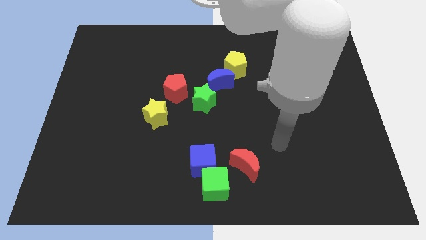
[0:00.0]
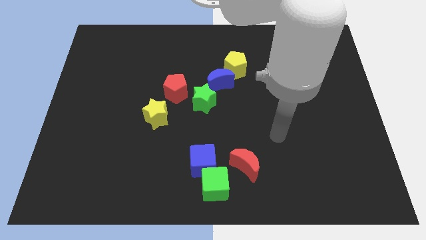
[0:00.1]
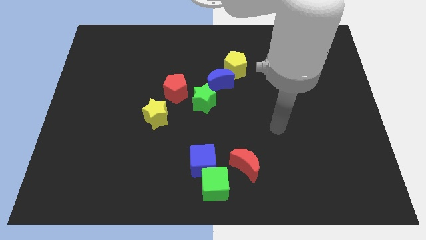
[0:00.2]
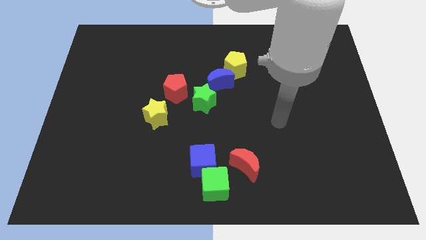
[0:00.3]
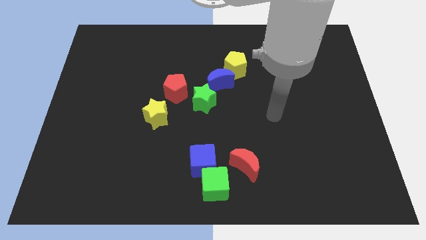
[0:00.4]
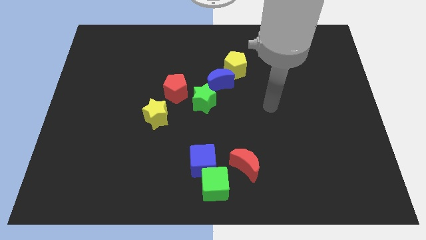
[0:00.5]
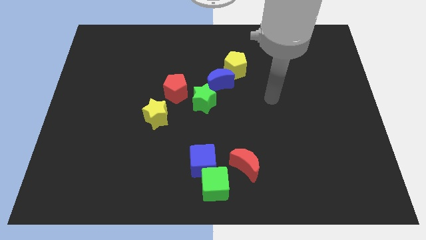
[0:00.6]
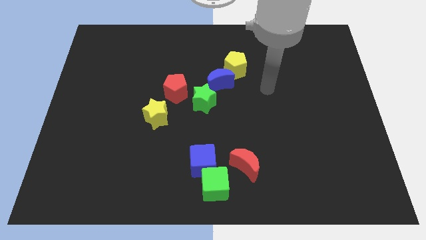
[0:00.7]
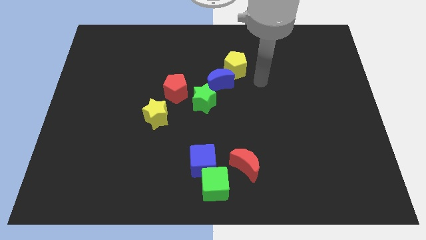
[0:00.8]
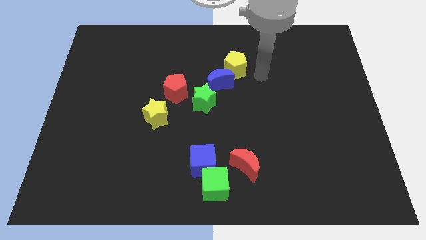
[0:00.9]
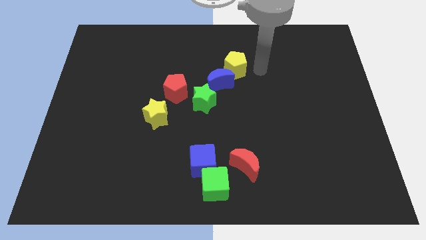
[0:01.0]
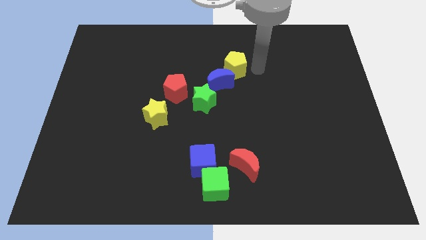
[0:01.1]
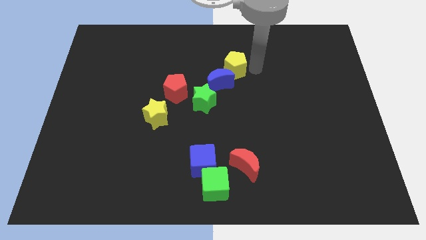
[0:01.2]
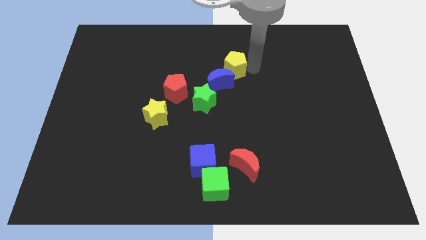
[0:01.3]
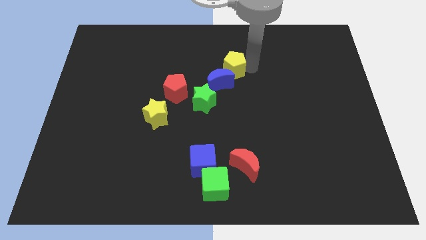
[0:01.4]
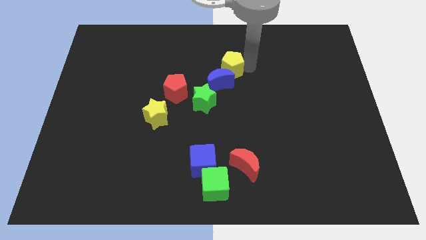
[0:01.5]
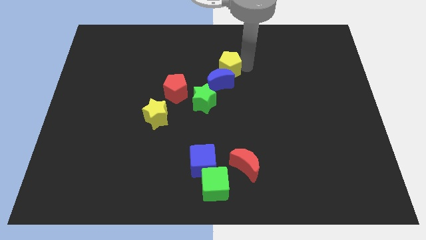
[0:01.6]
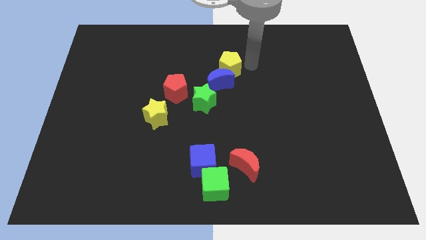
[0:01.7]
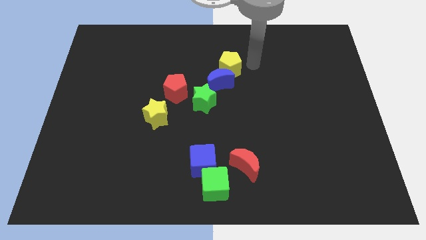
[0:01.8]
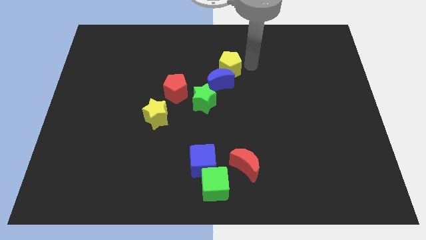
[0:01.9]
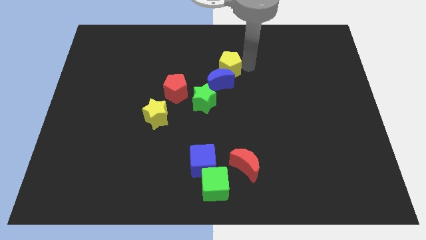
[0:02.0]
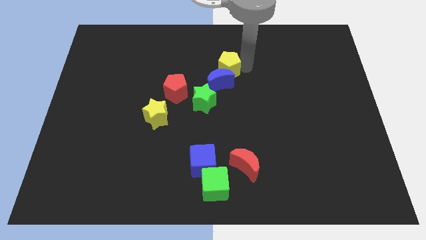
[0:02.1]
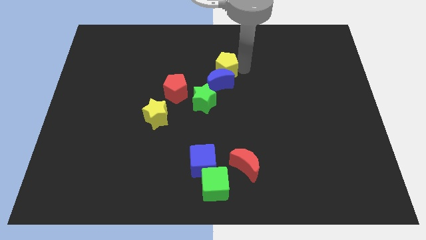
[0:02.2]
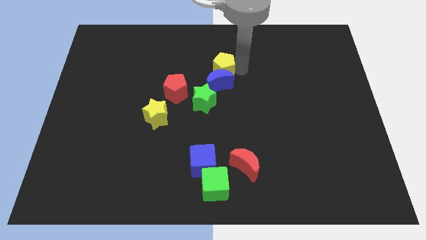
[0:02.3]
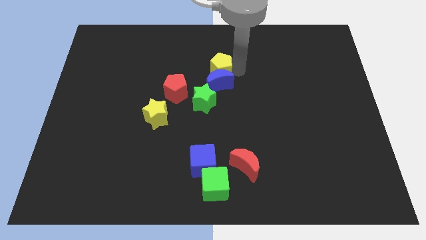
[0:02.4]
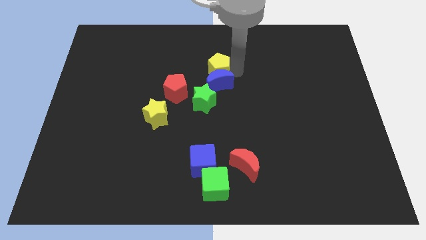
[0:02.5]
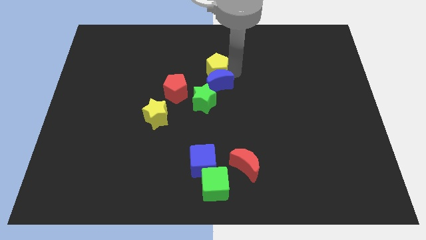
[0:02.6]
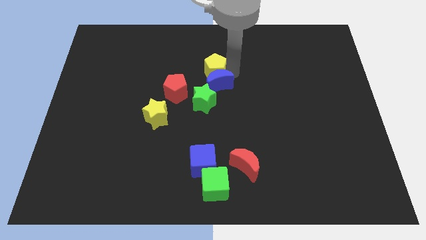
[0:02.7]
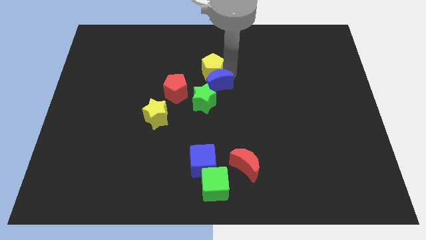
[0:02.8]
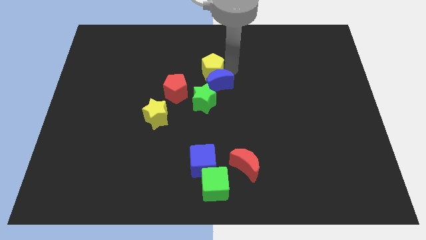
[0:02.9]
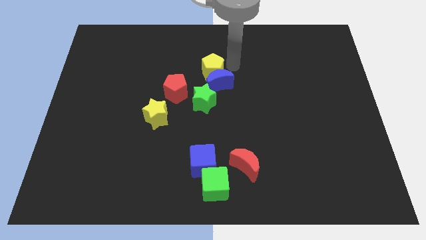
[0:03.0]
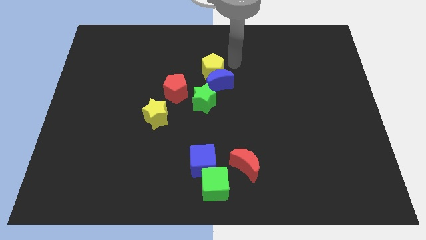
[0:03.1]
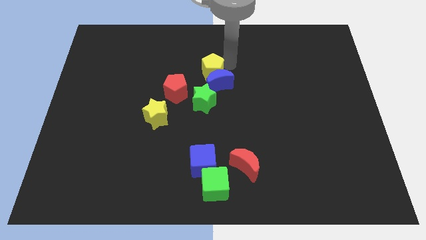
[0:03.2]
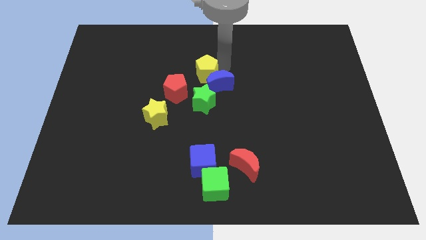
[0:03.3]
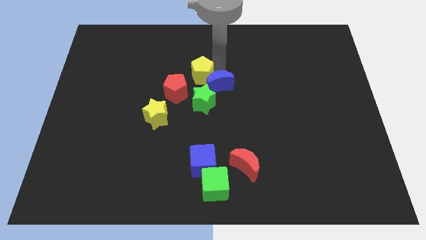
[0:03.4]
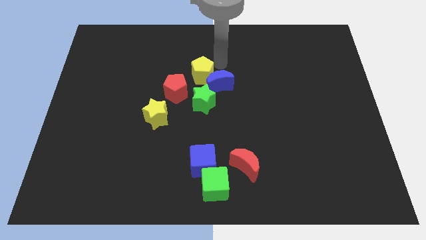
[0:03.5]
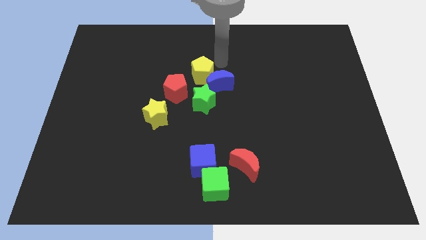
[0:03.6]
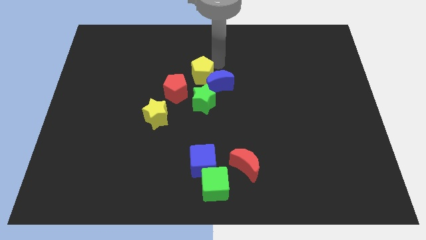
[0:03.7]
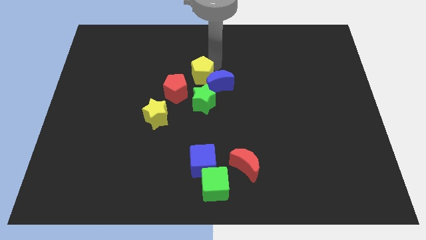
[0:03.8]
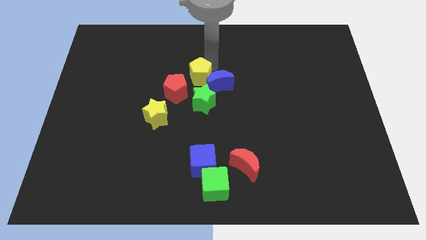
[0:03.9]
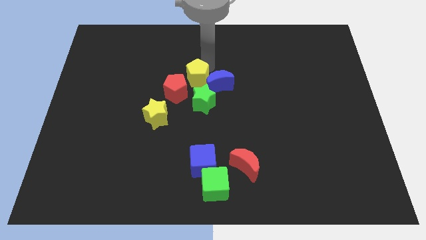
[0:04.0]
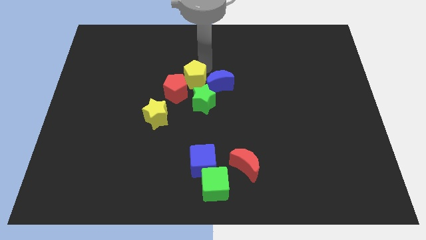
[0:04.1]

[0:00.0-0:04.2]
put the yellow pentagon towards the red pentagon

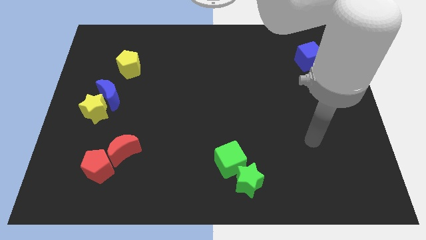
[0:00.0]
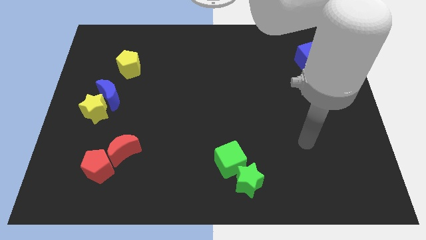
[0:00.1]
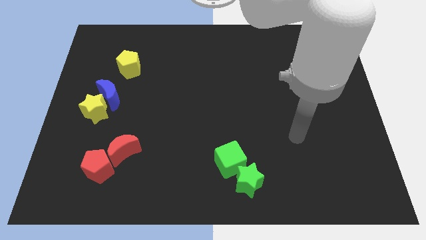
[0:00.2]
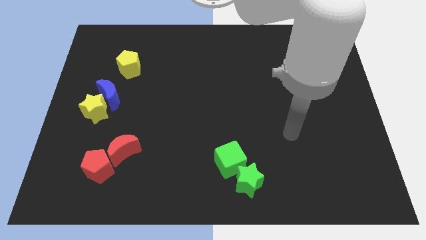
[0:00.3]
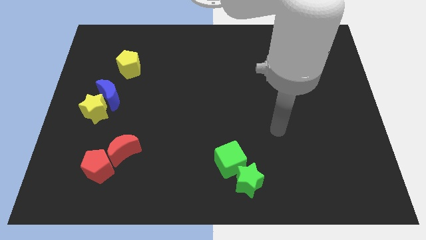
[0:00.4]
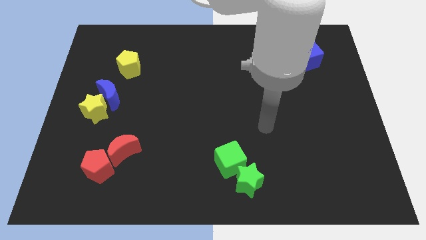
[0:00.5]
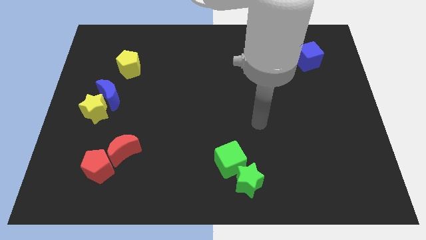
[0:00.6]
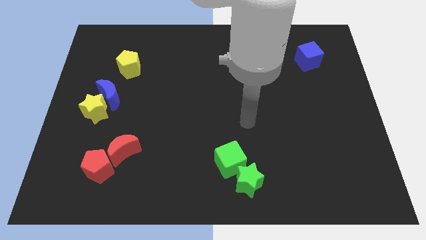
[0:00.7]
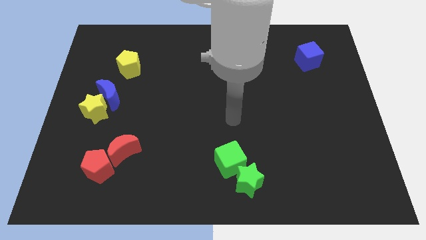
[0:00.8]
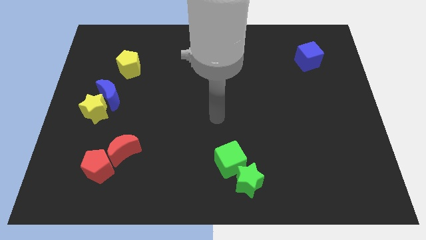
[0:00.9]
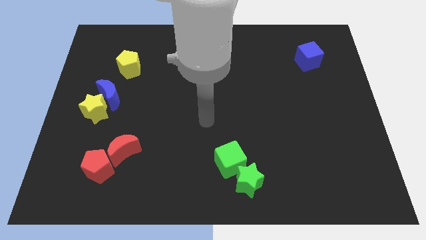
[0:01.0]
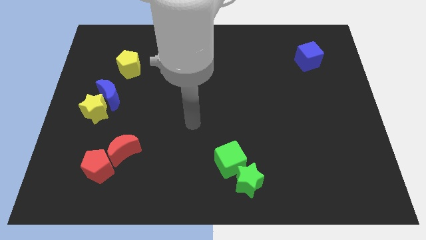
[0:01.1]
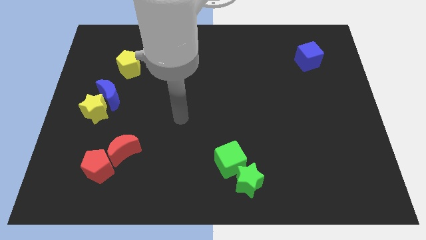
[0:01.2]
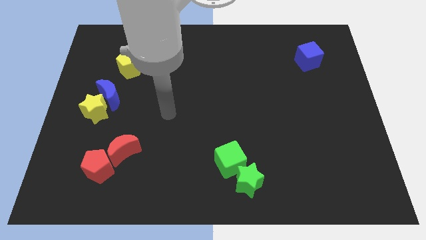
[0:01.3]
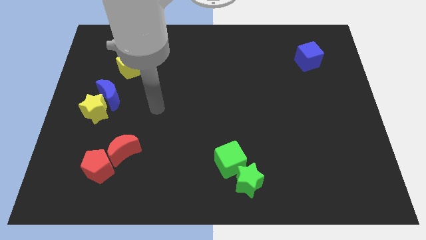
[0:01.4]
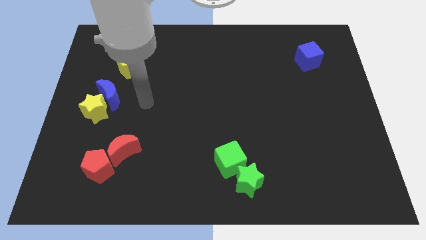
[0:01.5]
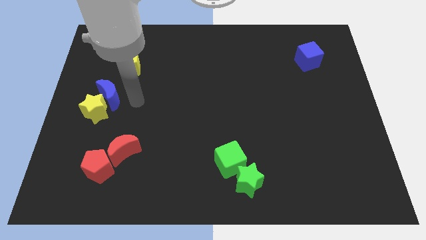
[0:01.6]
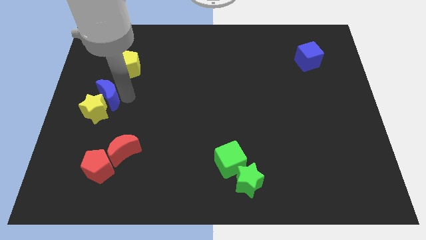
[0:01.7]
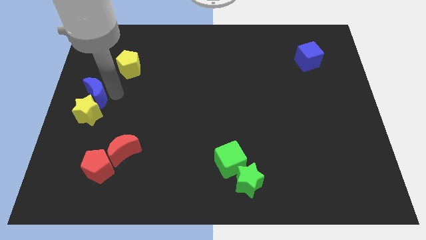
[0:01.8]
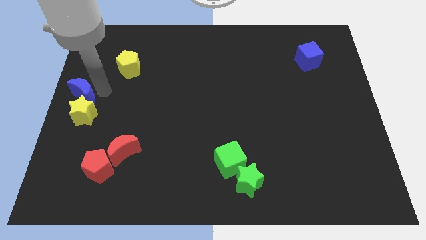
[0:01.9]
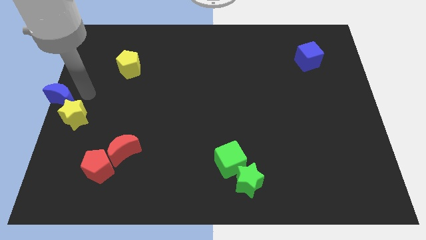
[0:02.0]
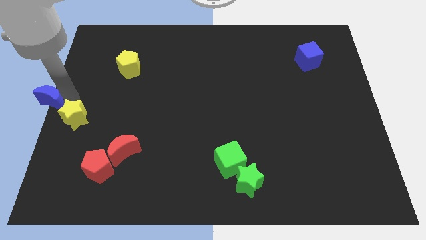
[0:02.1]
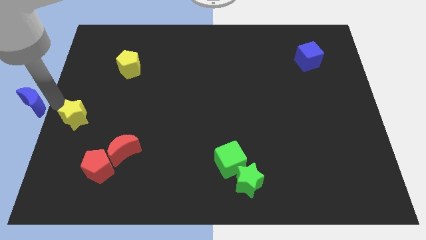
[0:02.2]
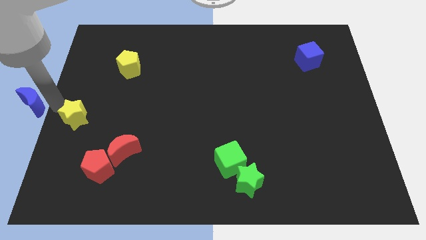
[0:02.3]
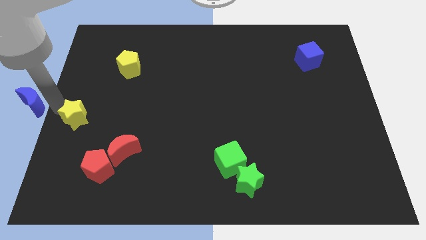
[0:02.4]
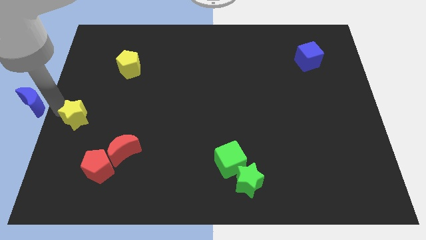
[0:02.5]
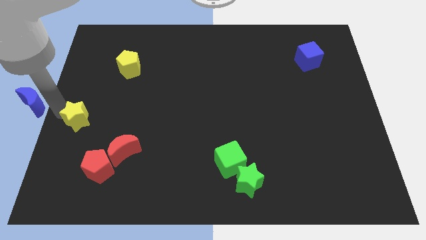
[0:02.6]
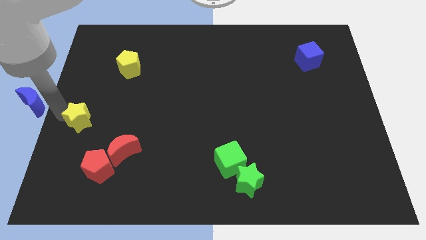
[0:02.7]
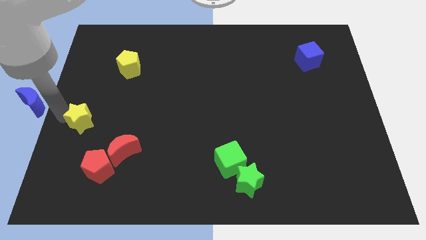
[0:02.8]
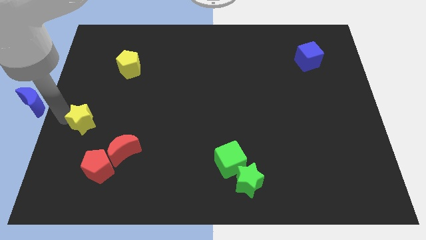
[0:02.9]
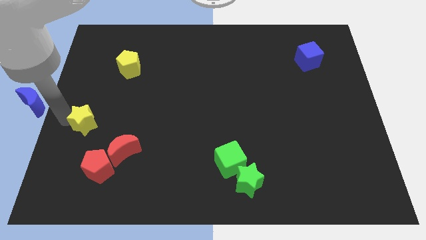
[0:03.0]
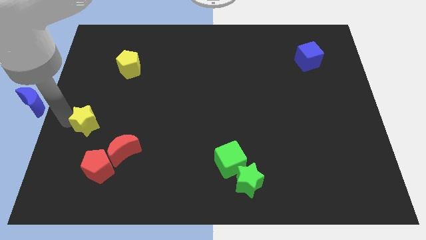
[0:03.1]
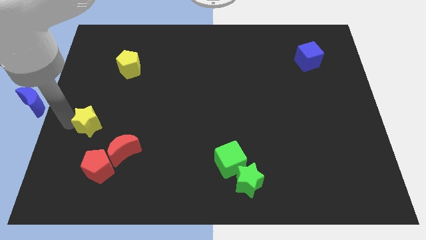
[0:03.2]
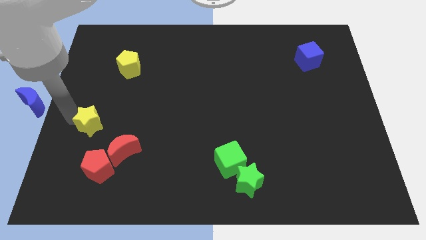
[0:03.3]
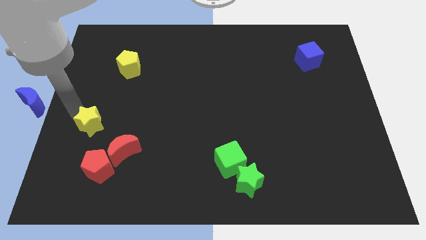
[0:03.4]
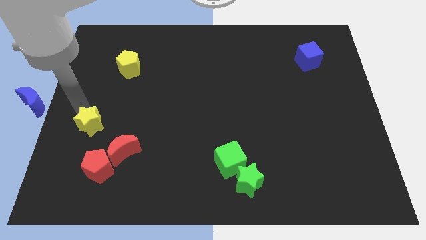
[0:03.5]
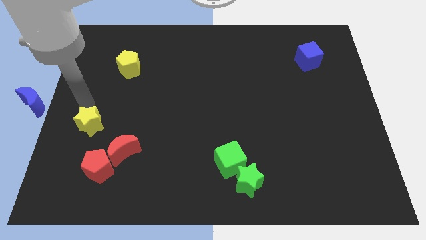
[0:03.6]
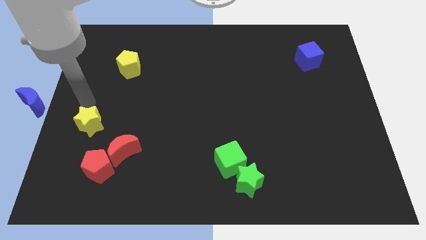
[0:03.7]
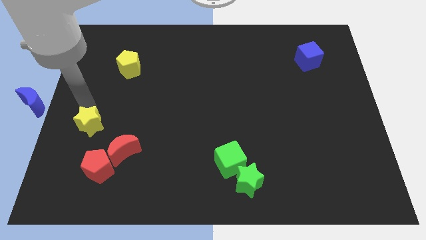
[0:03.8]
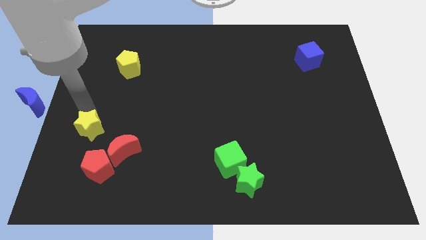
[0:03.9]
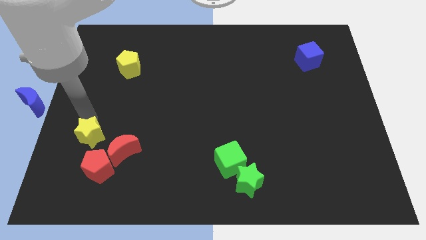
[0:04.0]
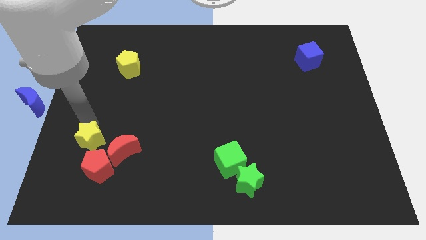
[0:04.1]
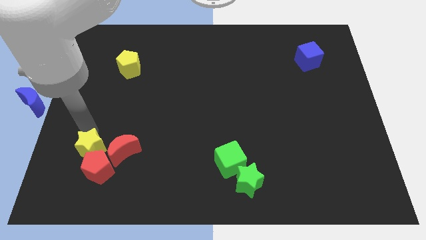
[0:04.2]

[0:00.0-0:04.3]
put the yellow star towards the red pentagon
